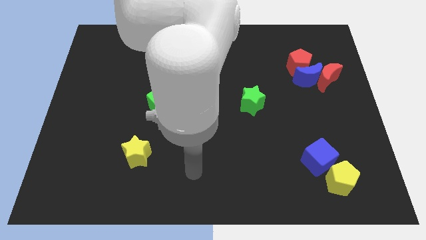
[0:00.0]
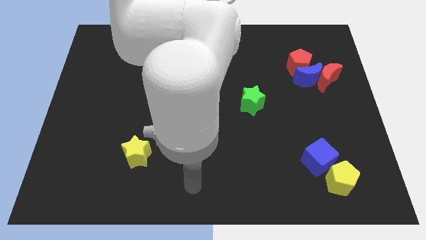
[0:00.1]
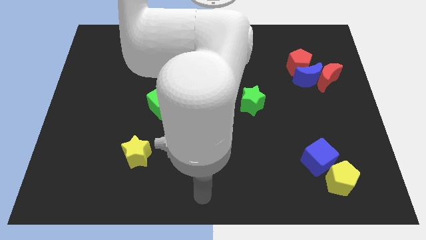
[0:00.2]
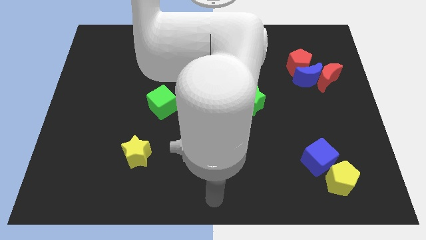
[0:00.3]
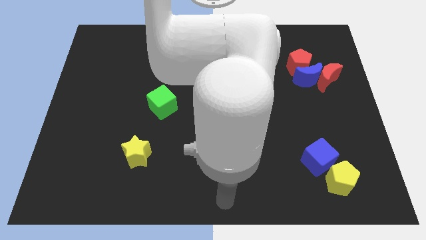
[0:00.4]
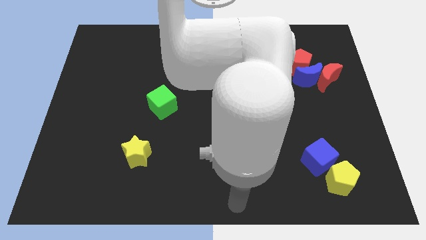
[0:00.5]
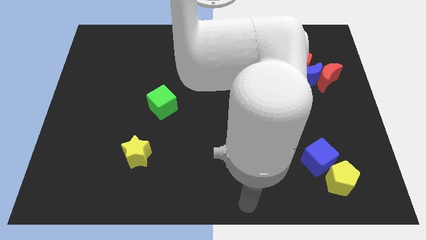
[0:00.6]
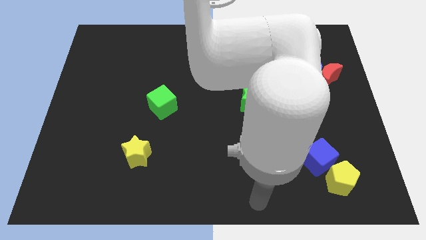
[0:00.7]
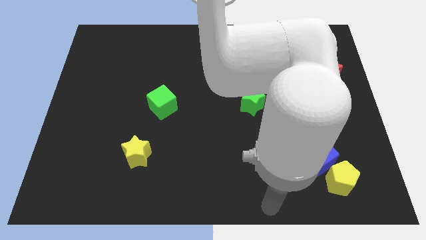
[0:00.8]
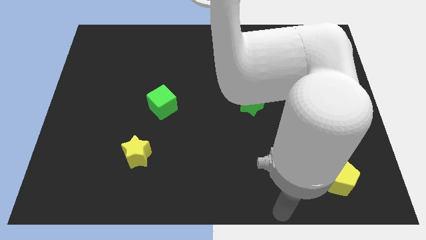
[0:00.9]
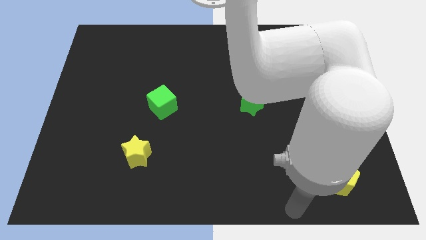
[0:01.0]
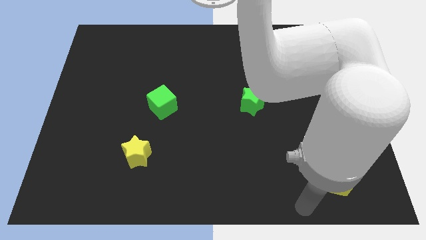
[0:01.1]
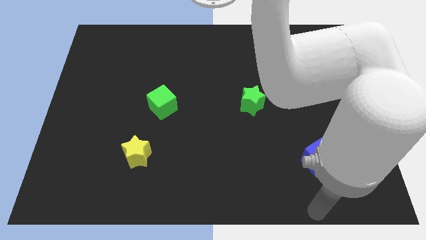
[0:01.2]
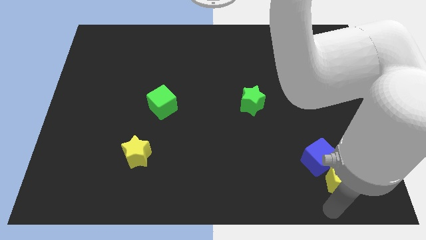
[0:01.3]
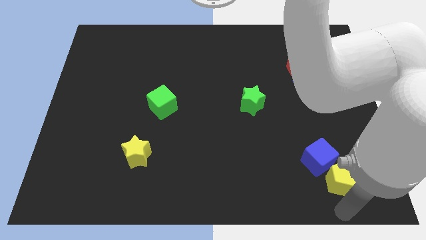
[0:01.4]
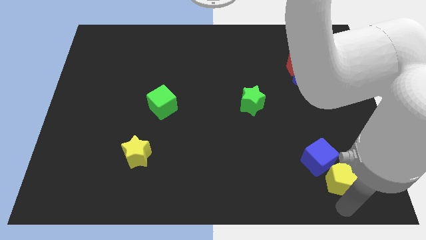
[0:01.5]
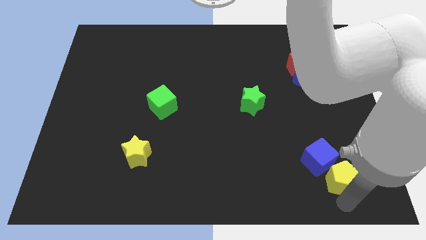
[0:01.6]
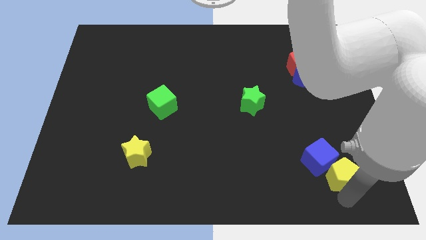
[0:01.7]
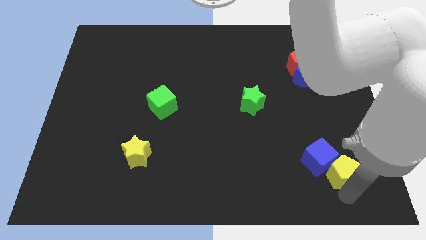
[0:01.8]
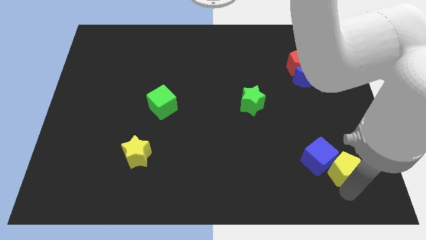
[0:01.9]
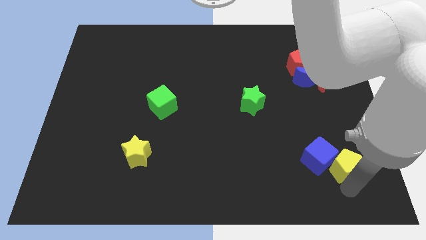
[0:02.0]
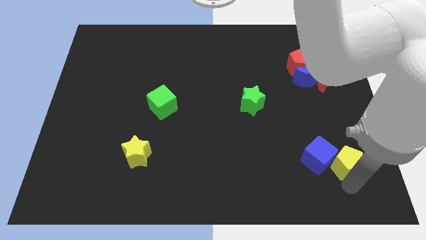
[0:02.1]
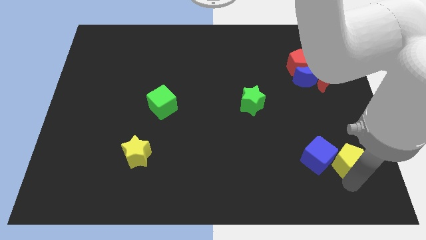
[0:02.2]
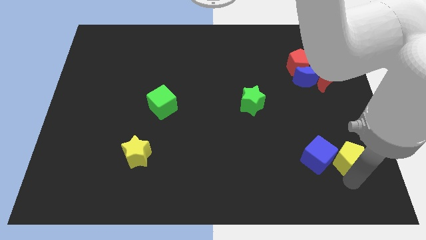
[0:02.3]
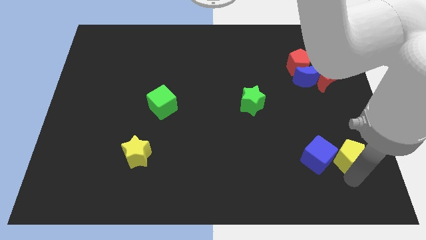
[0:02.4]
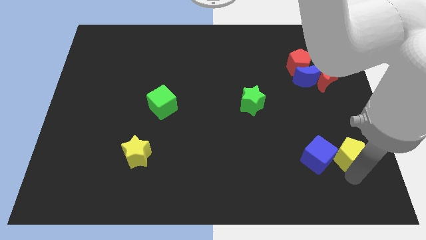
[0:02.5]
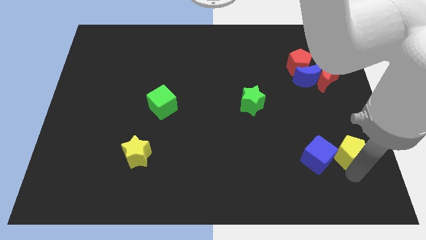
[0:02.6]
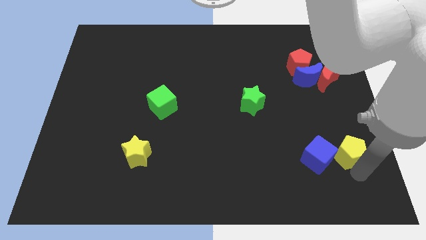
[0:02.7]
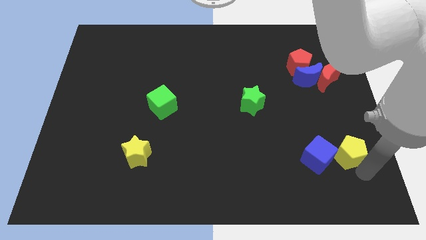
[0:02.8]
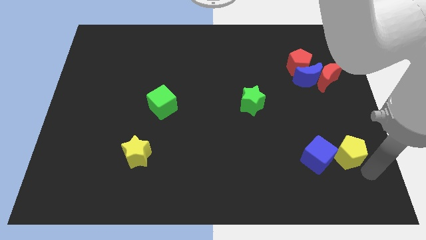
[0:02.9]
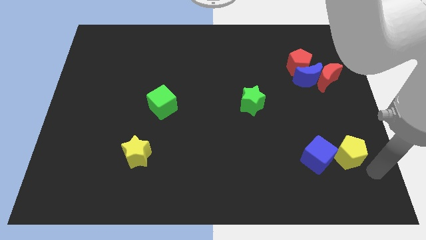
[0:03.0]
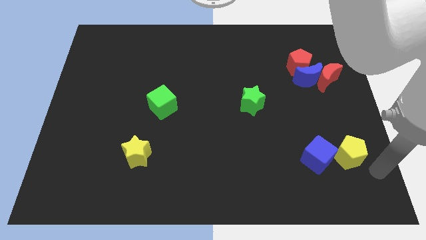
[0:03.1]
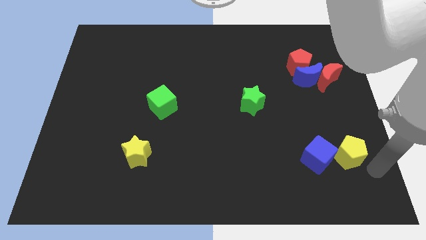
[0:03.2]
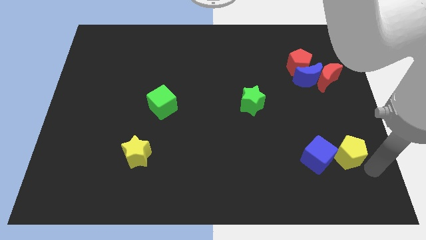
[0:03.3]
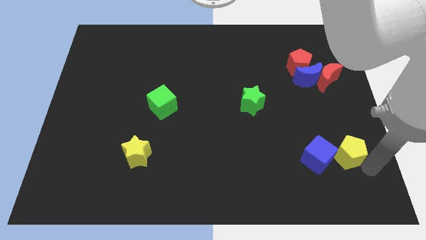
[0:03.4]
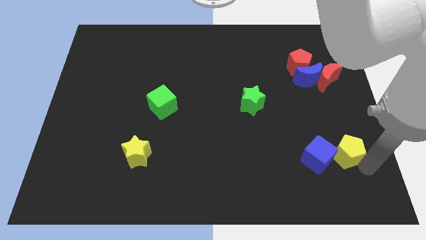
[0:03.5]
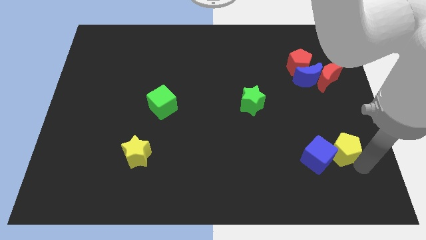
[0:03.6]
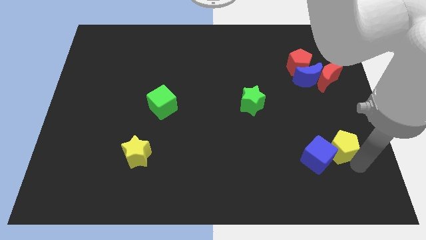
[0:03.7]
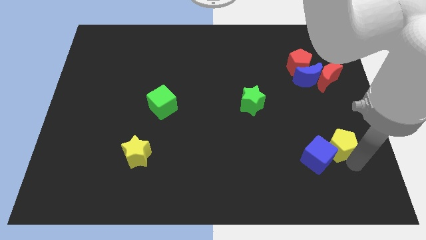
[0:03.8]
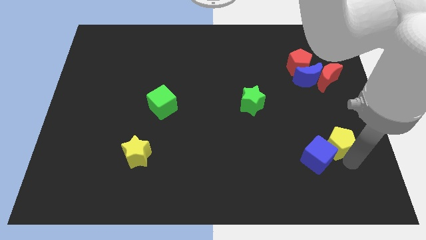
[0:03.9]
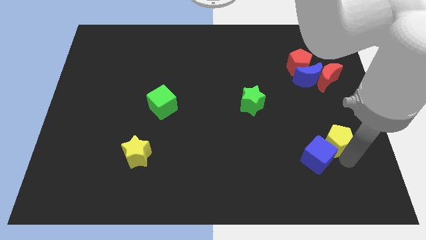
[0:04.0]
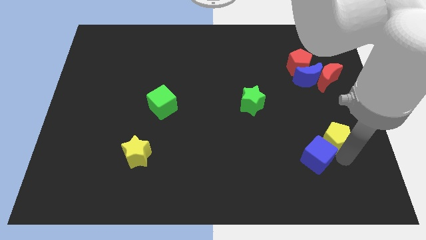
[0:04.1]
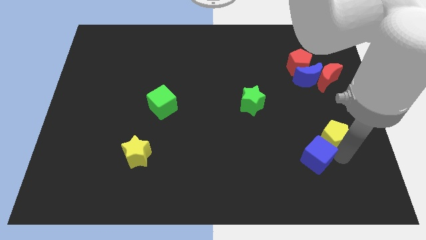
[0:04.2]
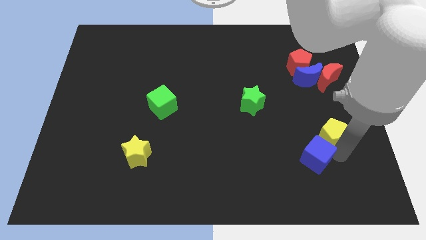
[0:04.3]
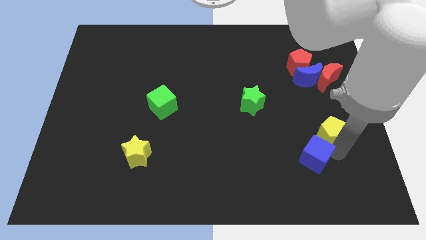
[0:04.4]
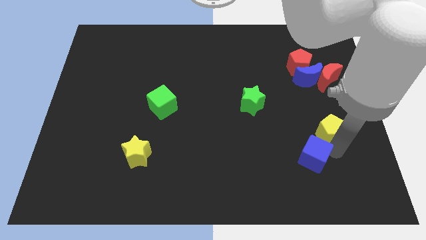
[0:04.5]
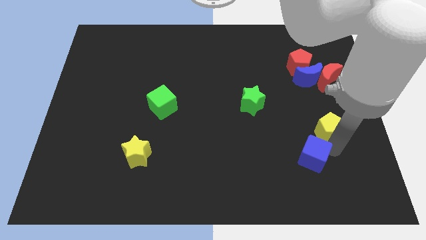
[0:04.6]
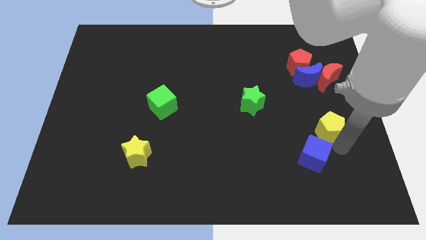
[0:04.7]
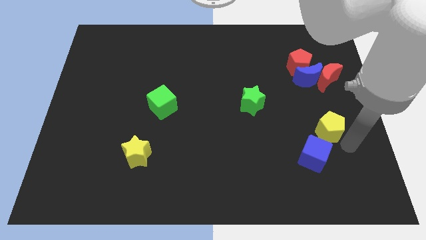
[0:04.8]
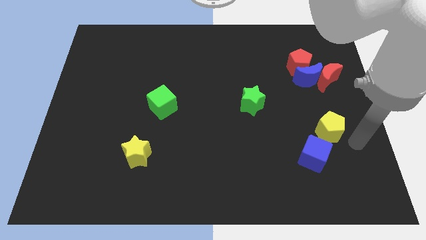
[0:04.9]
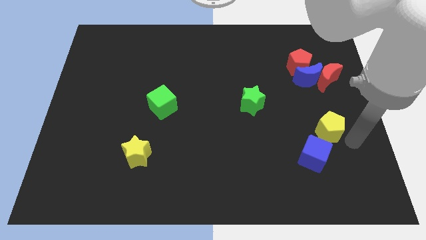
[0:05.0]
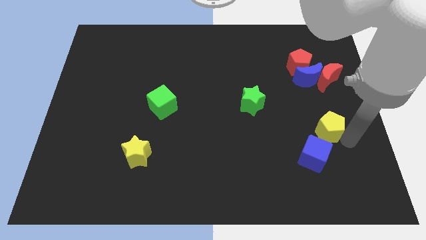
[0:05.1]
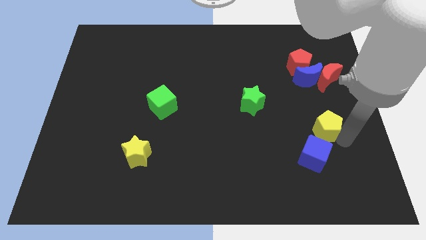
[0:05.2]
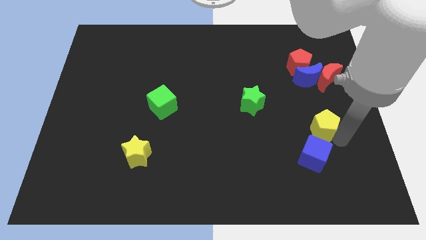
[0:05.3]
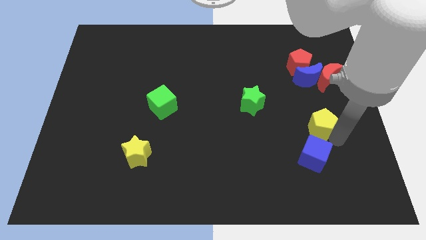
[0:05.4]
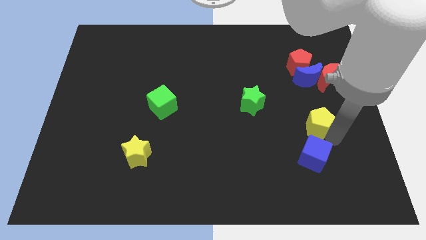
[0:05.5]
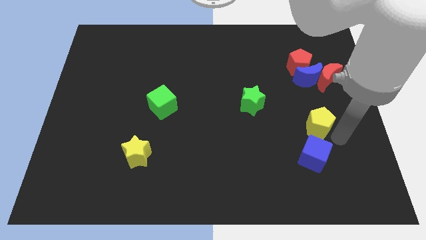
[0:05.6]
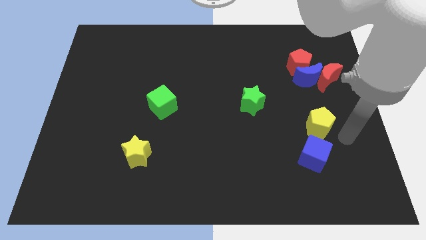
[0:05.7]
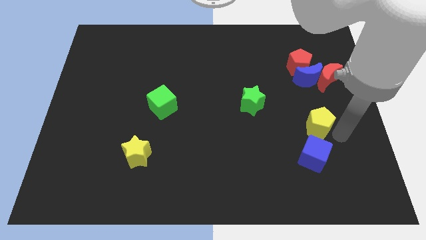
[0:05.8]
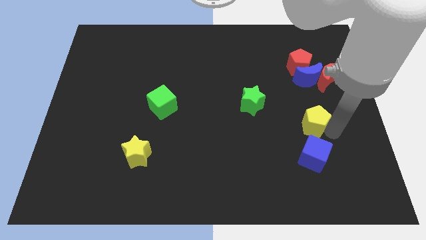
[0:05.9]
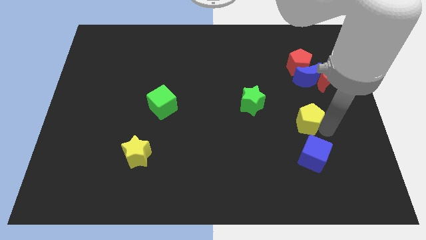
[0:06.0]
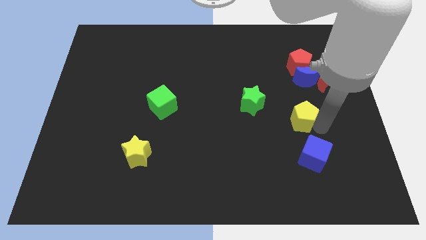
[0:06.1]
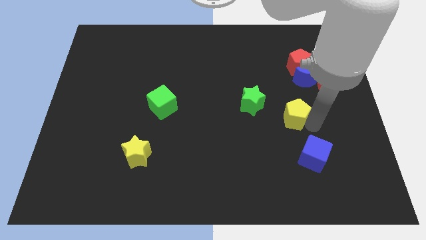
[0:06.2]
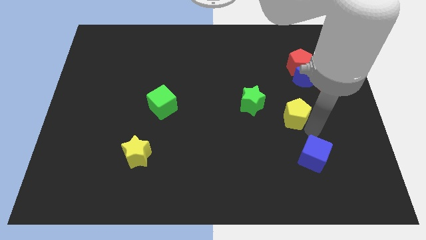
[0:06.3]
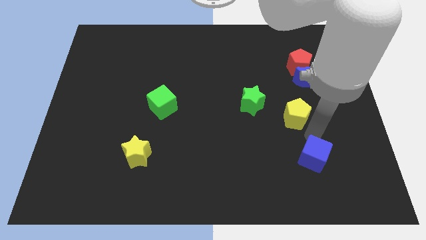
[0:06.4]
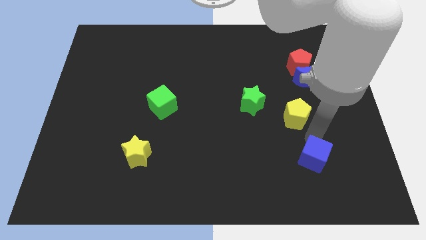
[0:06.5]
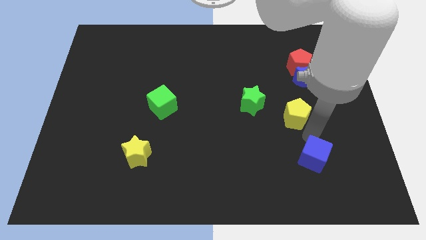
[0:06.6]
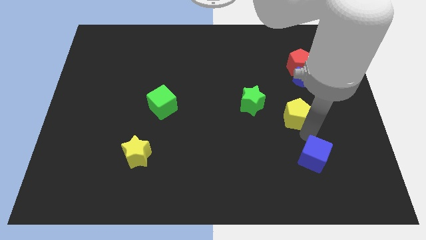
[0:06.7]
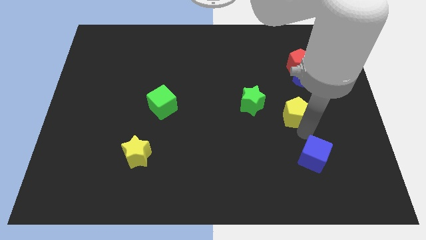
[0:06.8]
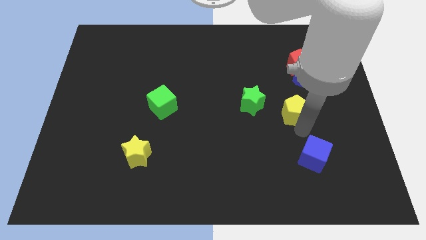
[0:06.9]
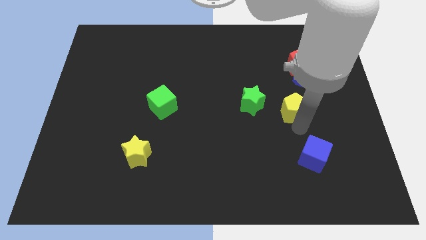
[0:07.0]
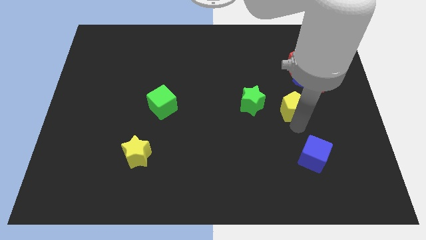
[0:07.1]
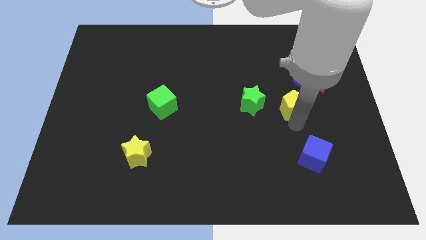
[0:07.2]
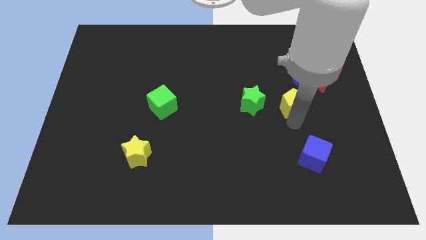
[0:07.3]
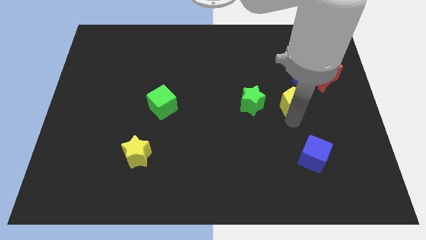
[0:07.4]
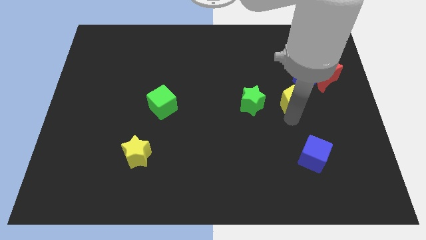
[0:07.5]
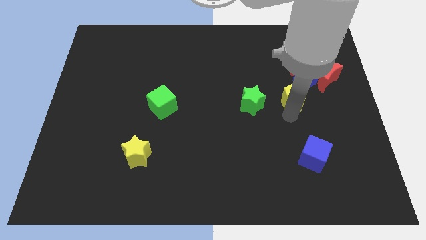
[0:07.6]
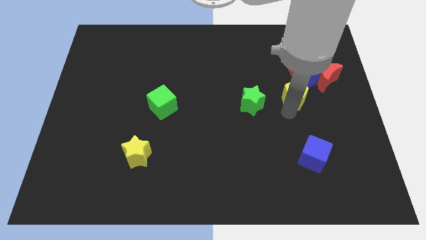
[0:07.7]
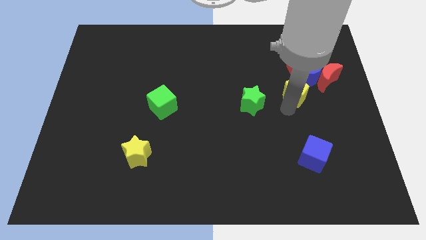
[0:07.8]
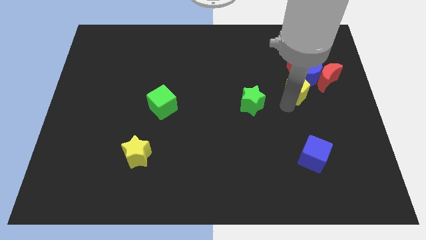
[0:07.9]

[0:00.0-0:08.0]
move the yellow pentagon just left of the blue moon

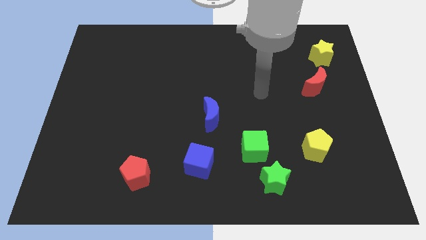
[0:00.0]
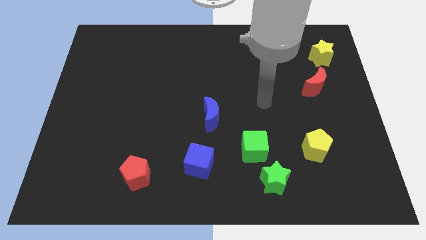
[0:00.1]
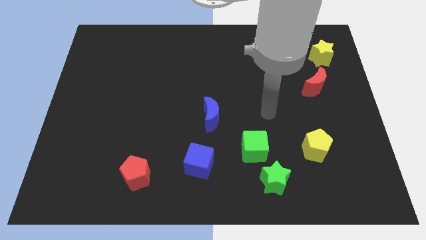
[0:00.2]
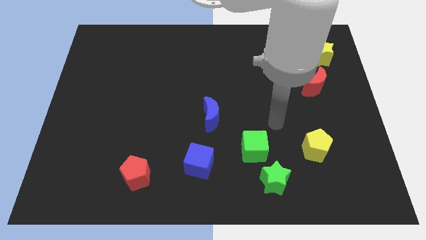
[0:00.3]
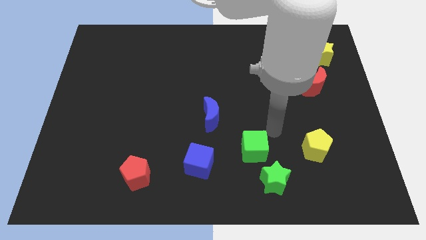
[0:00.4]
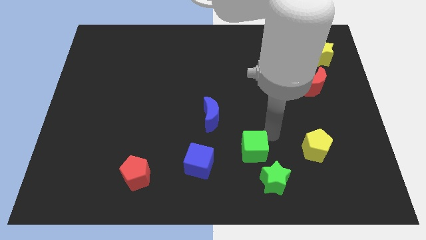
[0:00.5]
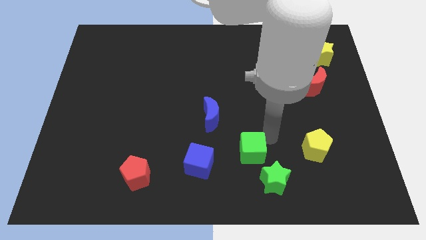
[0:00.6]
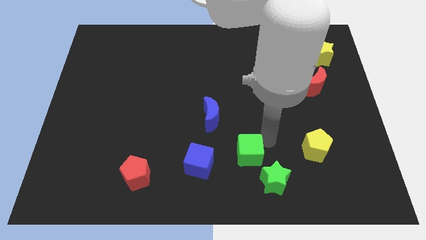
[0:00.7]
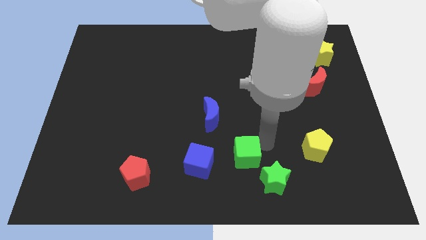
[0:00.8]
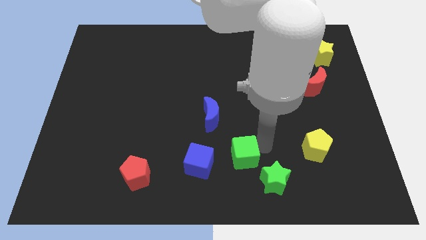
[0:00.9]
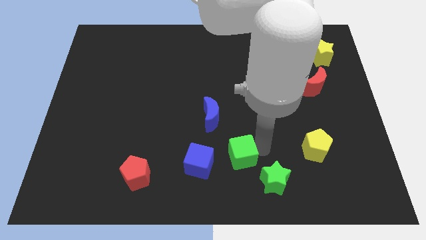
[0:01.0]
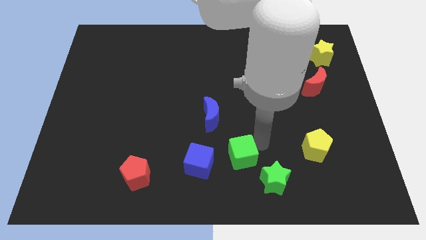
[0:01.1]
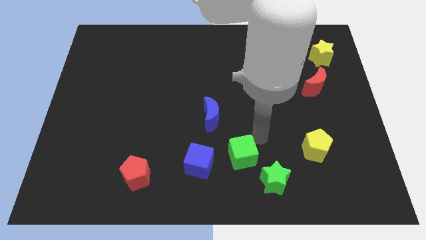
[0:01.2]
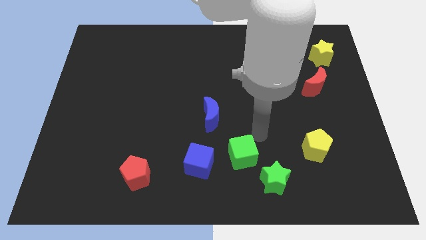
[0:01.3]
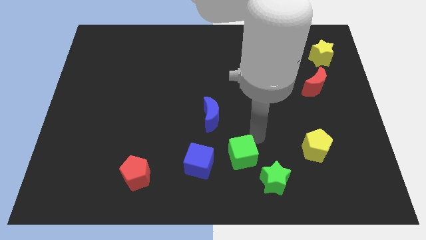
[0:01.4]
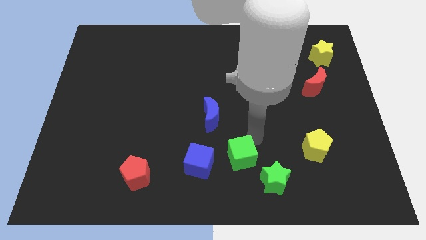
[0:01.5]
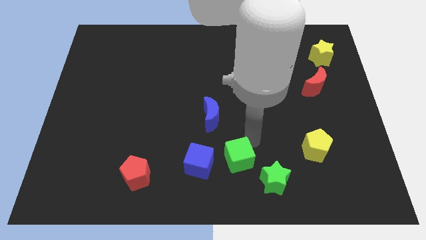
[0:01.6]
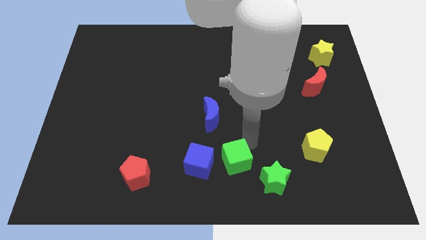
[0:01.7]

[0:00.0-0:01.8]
push the green cube left of the green star
